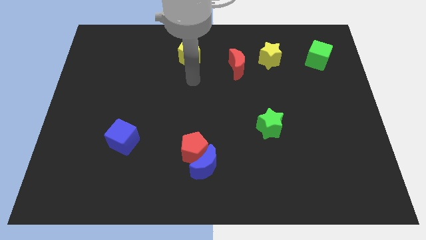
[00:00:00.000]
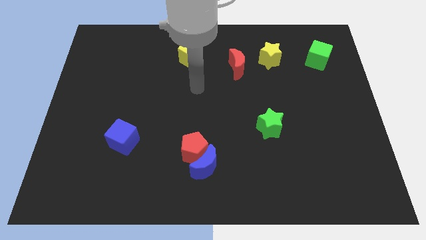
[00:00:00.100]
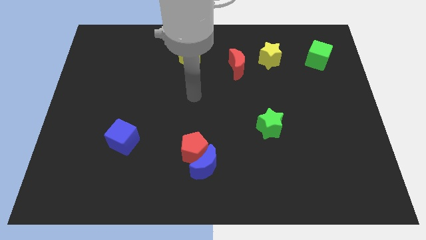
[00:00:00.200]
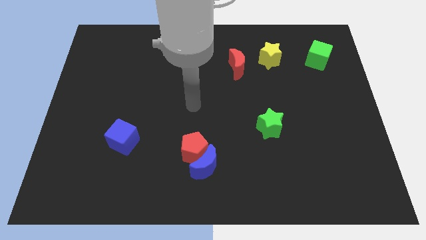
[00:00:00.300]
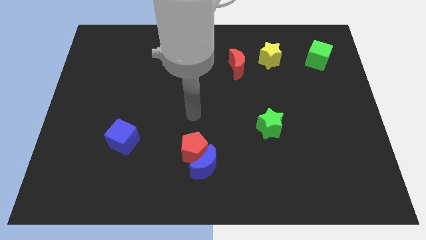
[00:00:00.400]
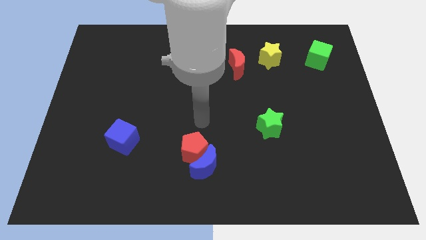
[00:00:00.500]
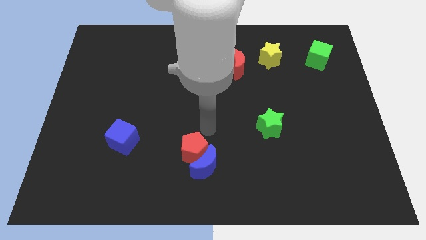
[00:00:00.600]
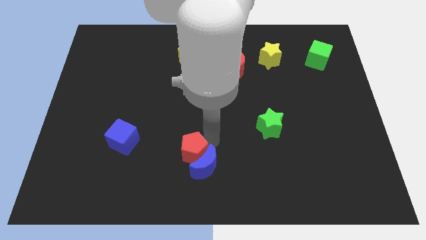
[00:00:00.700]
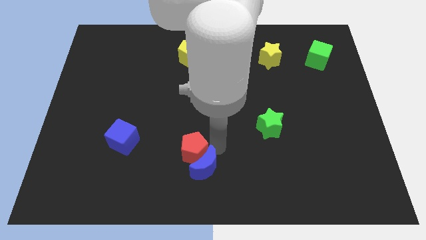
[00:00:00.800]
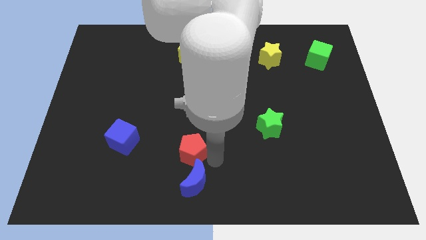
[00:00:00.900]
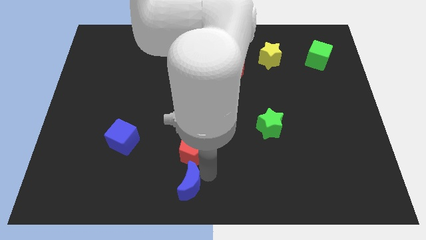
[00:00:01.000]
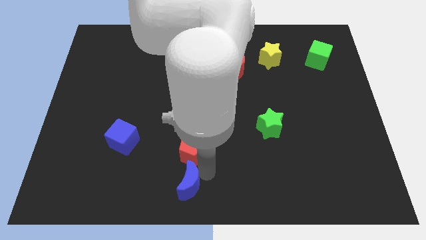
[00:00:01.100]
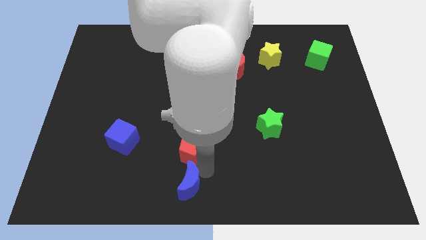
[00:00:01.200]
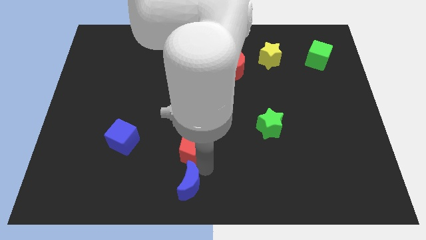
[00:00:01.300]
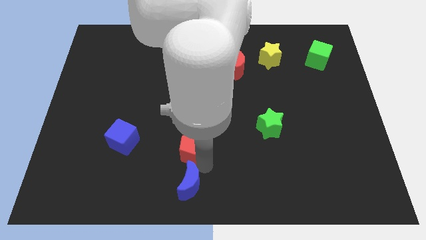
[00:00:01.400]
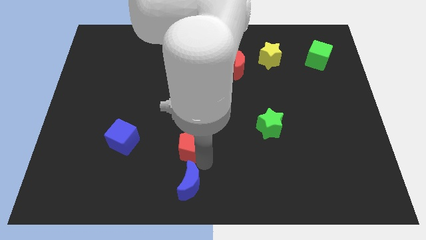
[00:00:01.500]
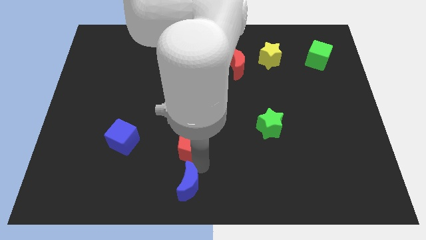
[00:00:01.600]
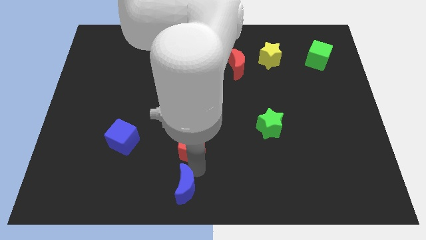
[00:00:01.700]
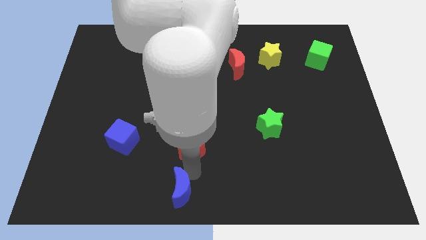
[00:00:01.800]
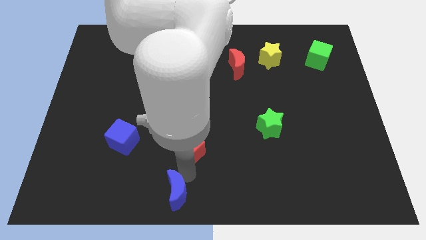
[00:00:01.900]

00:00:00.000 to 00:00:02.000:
pull the red pentagon apart from the blue moon

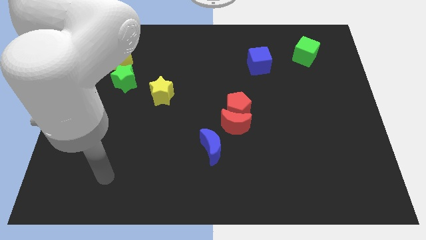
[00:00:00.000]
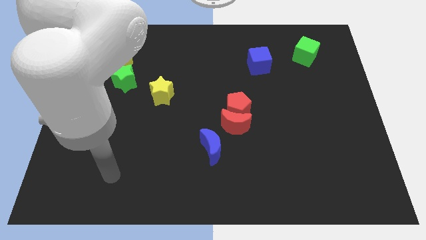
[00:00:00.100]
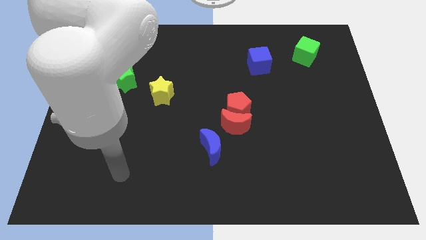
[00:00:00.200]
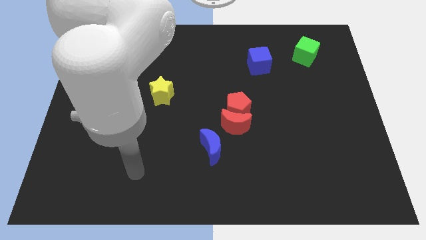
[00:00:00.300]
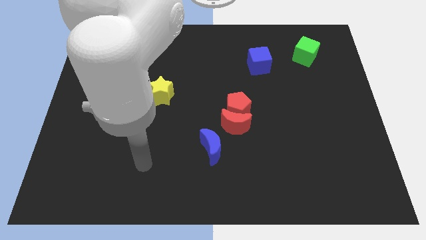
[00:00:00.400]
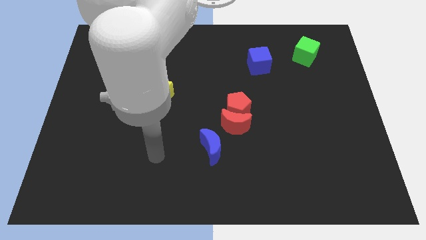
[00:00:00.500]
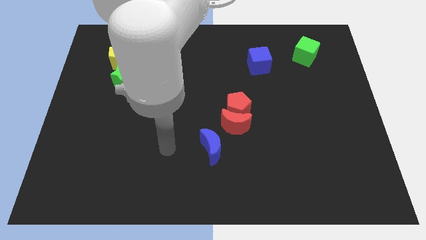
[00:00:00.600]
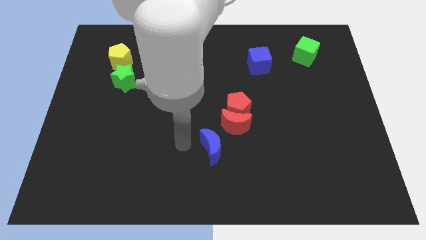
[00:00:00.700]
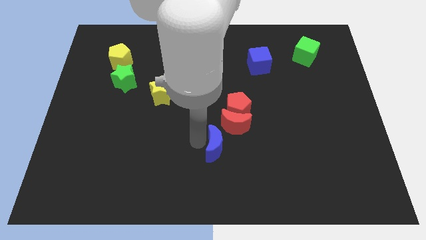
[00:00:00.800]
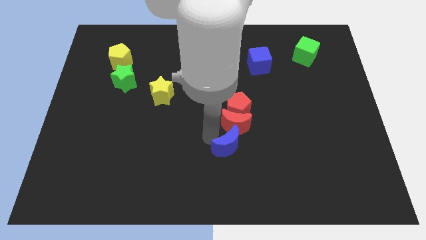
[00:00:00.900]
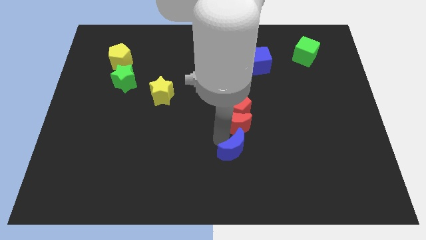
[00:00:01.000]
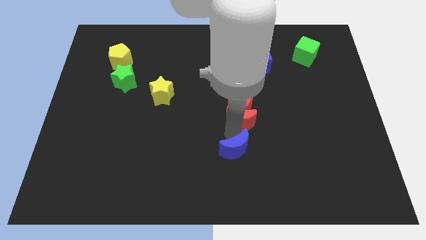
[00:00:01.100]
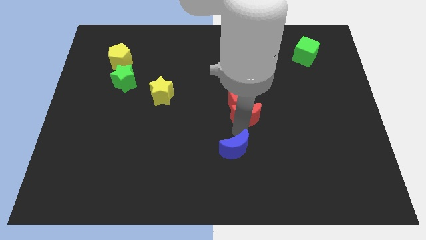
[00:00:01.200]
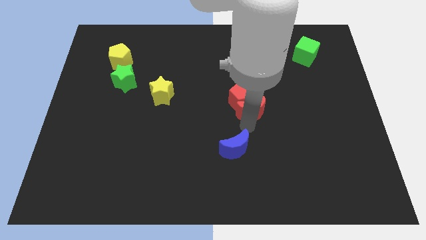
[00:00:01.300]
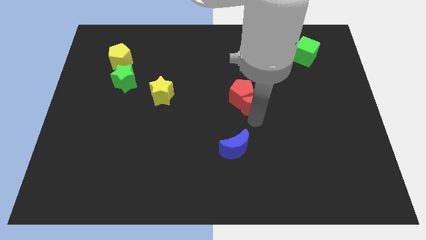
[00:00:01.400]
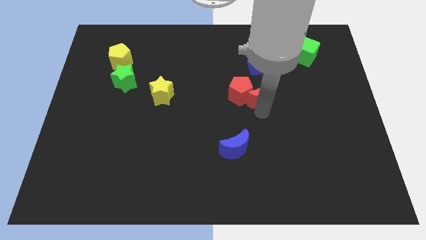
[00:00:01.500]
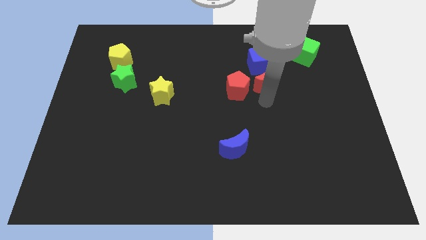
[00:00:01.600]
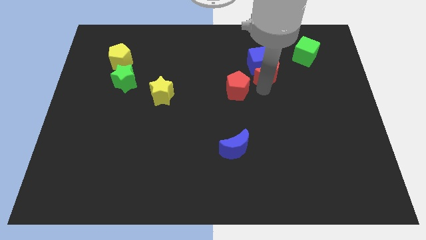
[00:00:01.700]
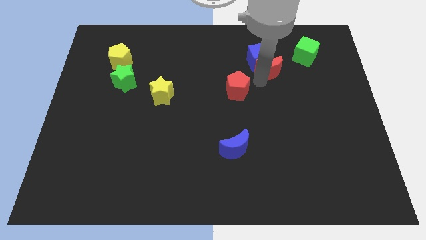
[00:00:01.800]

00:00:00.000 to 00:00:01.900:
move the red pentagon away from the red moon

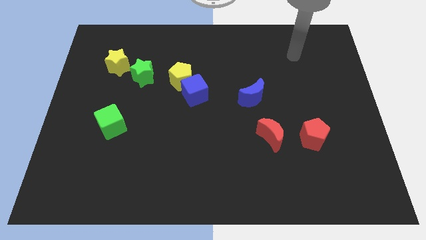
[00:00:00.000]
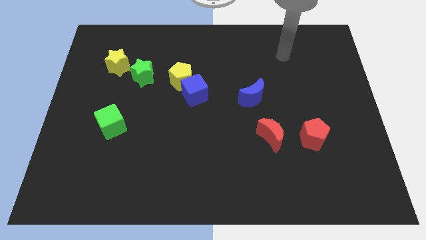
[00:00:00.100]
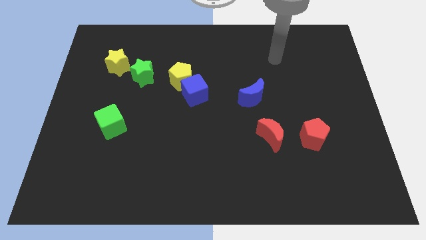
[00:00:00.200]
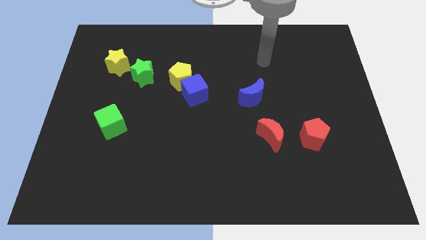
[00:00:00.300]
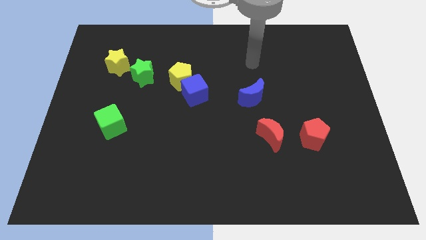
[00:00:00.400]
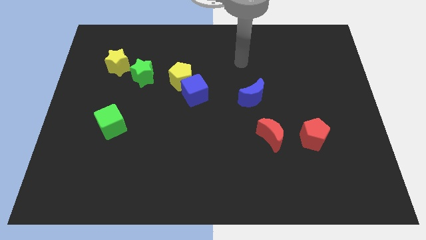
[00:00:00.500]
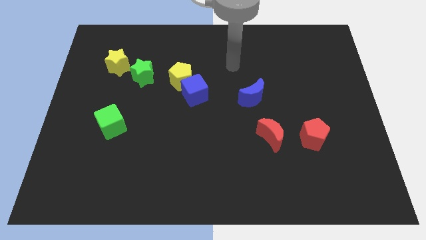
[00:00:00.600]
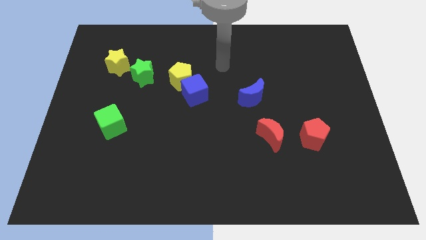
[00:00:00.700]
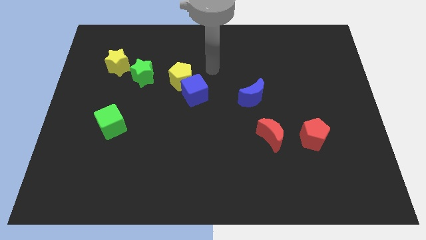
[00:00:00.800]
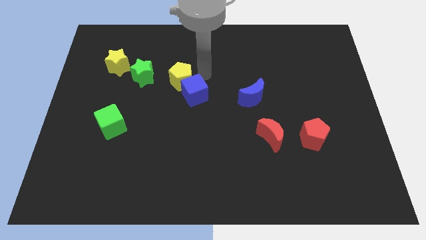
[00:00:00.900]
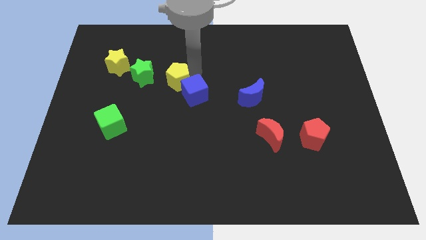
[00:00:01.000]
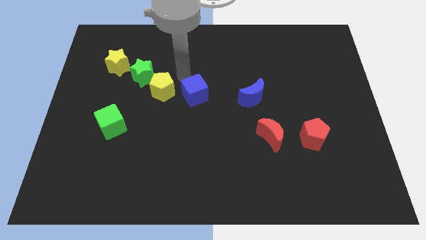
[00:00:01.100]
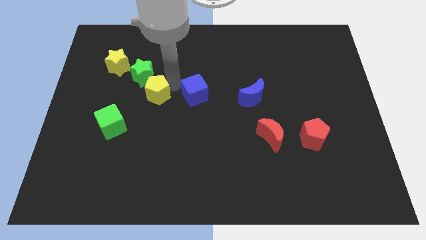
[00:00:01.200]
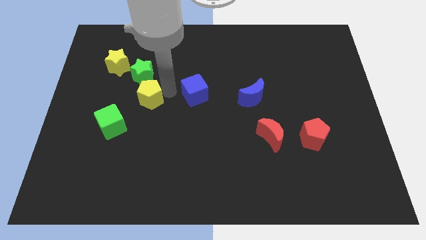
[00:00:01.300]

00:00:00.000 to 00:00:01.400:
pull the blue cube apart from the yellow pentagon

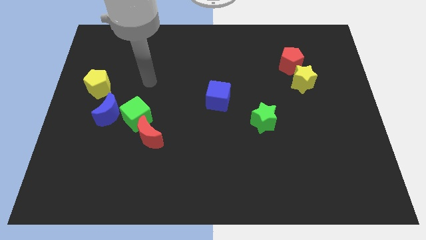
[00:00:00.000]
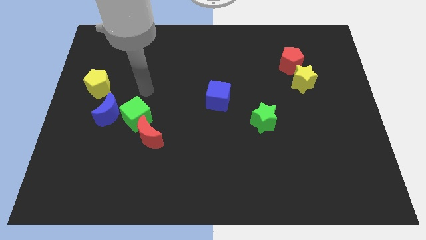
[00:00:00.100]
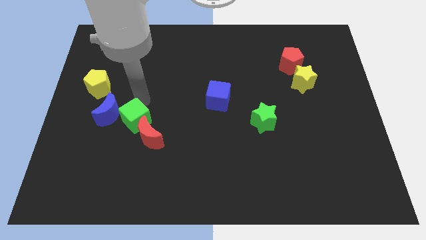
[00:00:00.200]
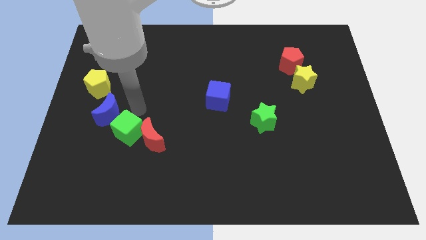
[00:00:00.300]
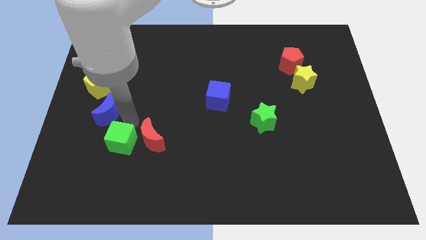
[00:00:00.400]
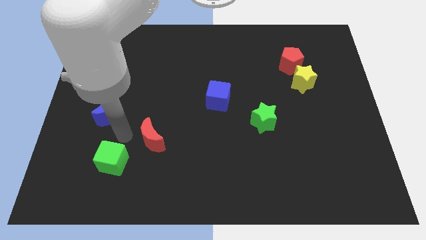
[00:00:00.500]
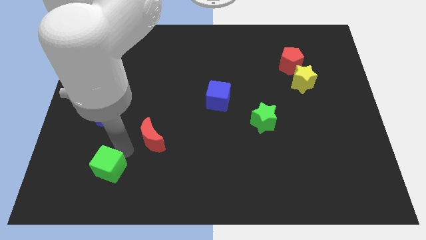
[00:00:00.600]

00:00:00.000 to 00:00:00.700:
separate the red moon from the green cube

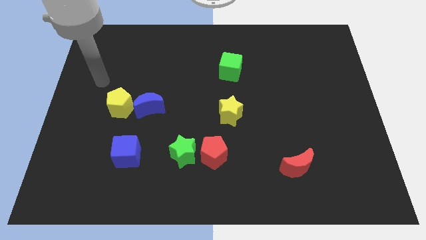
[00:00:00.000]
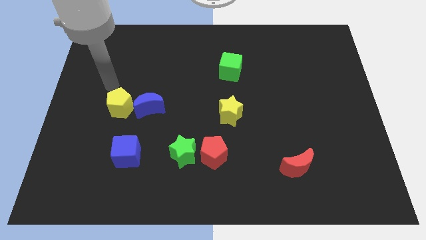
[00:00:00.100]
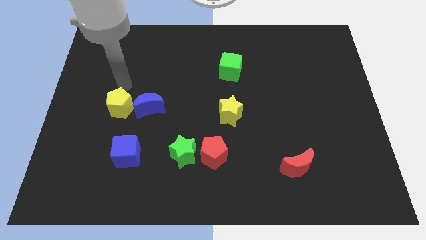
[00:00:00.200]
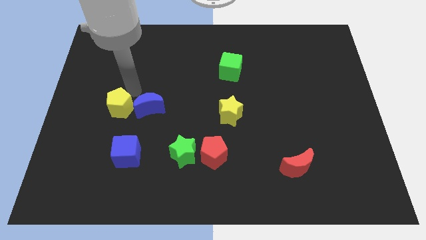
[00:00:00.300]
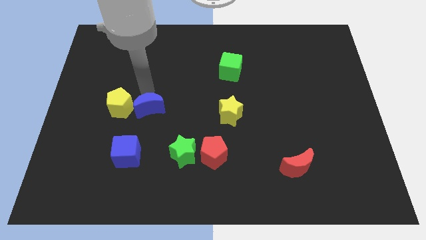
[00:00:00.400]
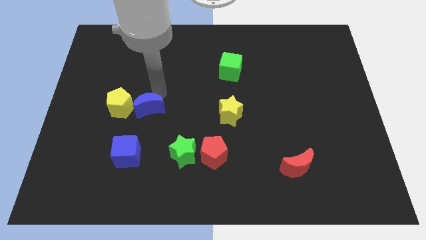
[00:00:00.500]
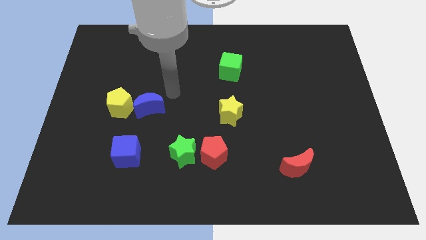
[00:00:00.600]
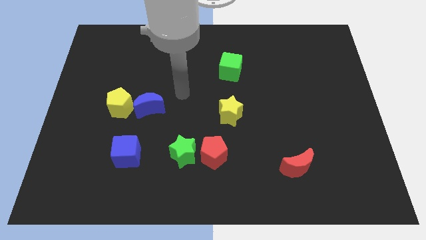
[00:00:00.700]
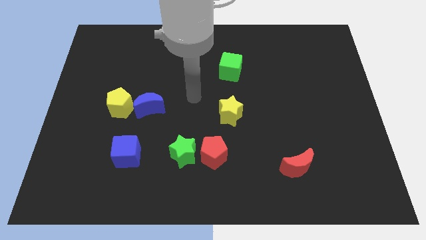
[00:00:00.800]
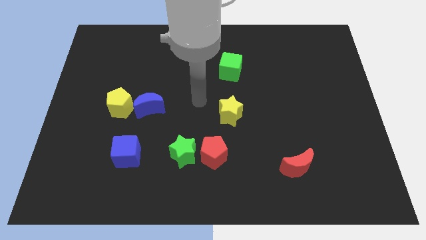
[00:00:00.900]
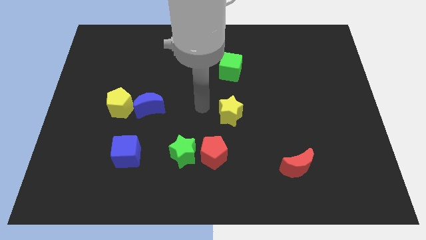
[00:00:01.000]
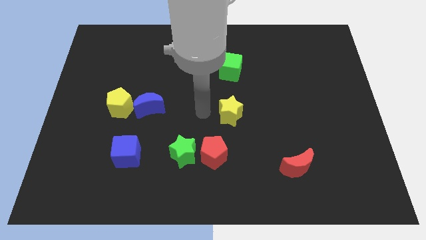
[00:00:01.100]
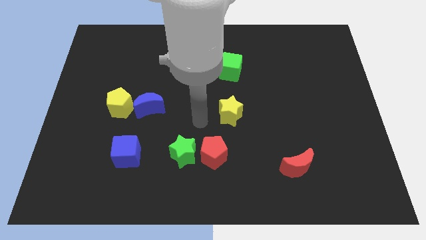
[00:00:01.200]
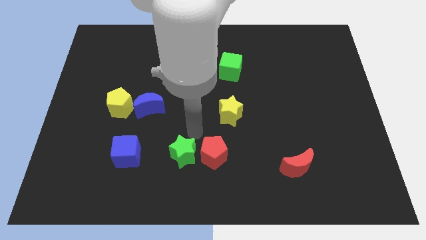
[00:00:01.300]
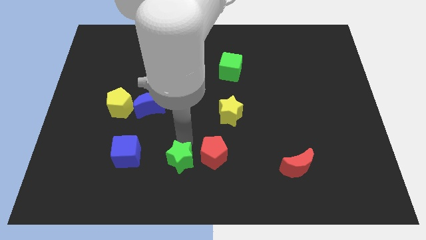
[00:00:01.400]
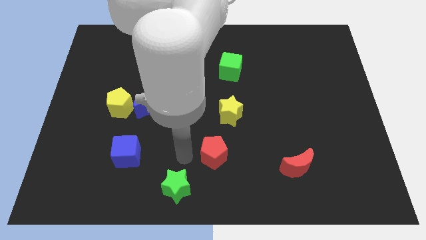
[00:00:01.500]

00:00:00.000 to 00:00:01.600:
move the red pentagon away from the green star

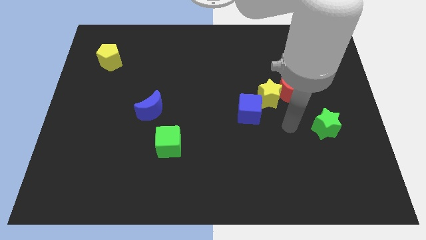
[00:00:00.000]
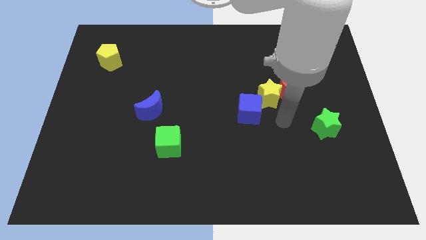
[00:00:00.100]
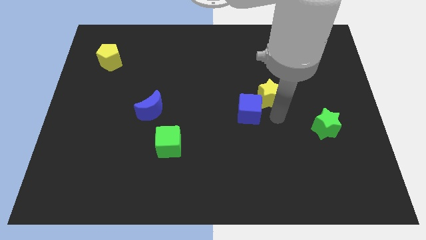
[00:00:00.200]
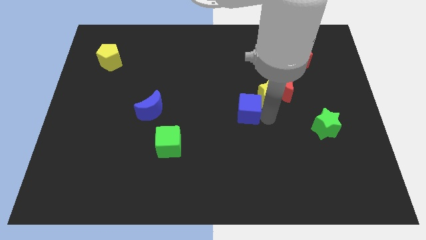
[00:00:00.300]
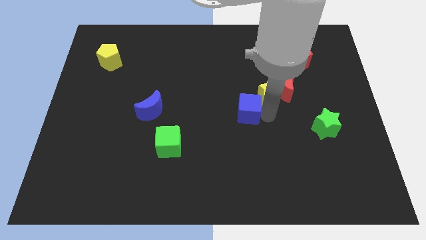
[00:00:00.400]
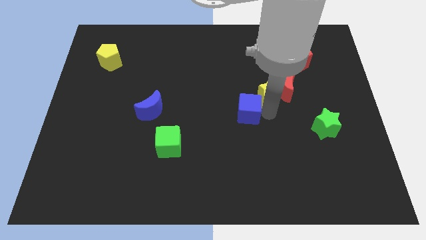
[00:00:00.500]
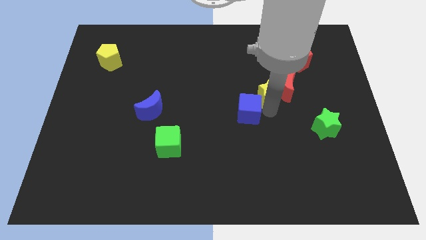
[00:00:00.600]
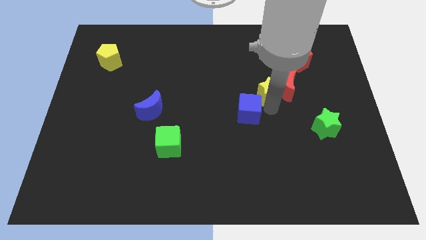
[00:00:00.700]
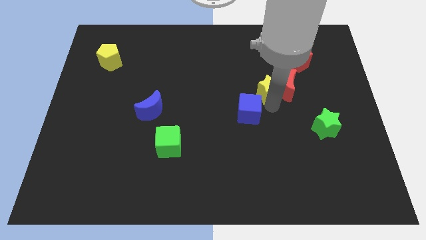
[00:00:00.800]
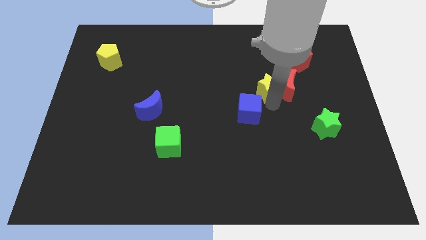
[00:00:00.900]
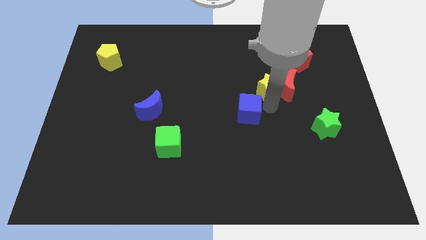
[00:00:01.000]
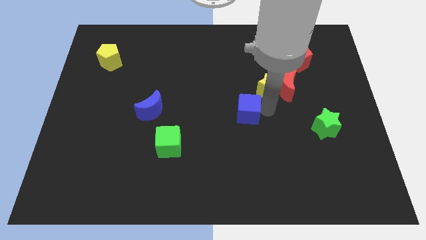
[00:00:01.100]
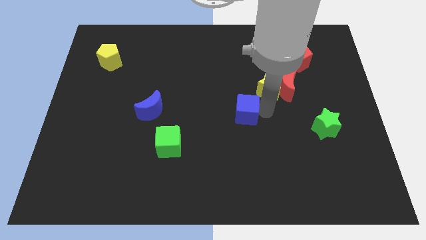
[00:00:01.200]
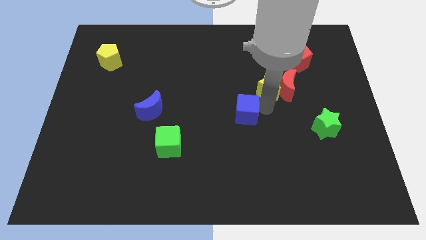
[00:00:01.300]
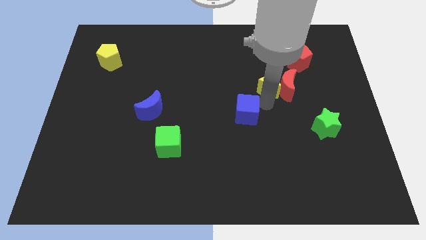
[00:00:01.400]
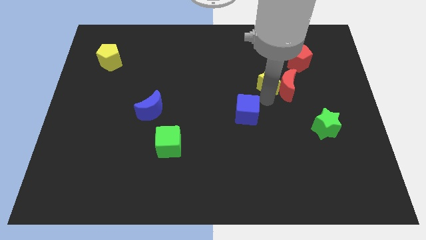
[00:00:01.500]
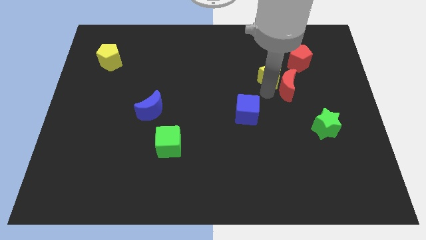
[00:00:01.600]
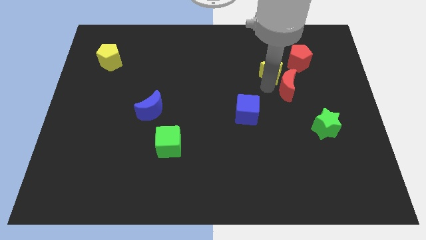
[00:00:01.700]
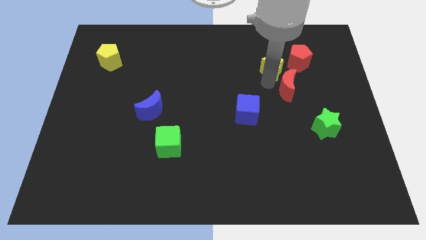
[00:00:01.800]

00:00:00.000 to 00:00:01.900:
separate the yellow star from the red moon and blue cube
